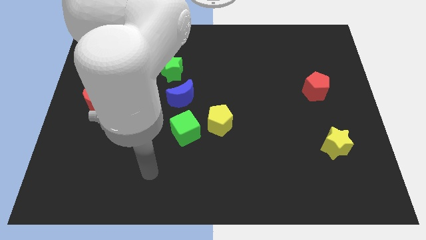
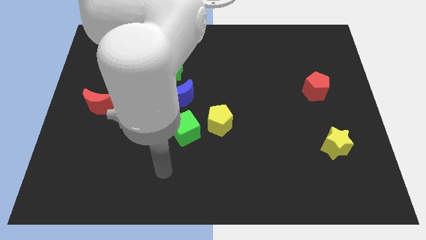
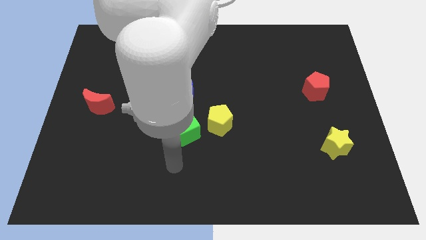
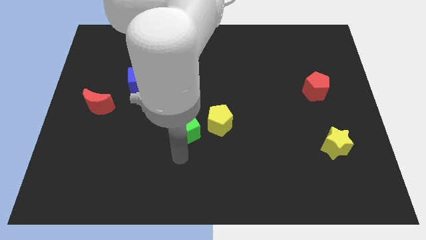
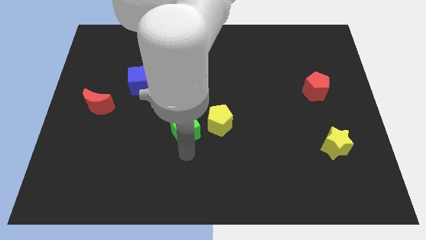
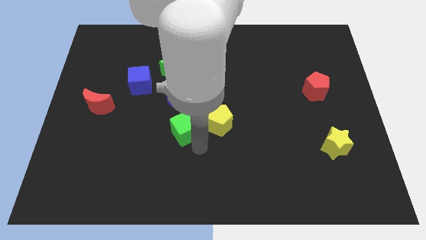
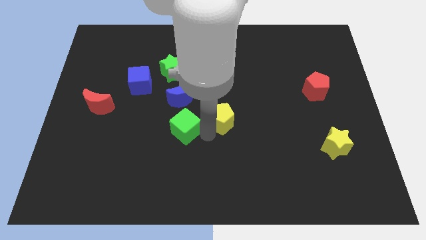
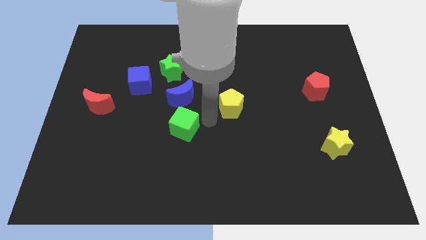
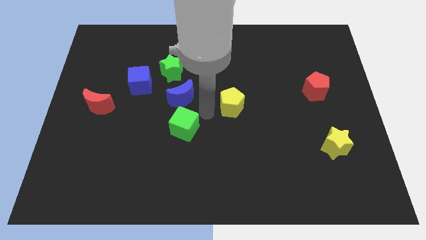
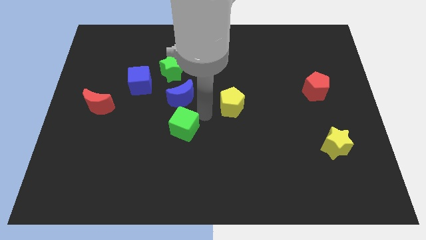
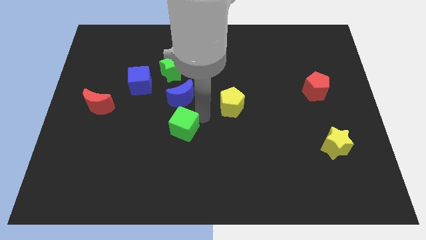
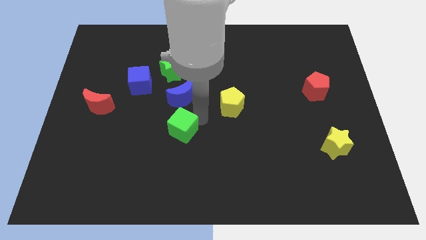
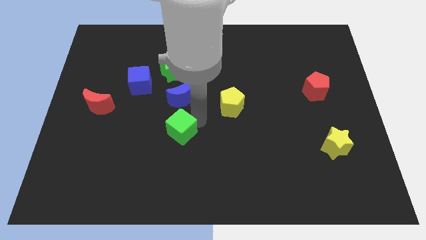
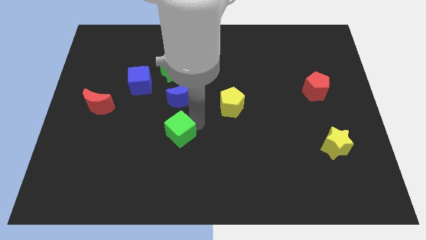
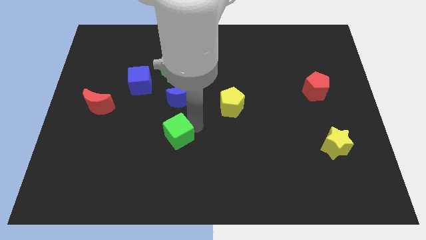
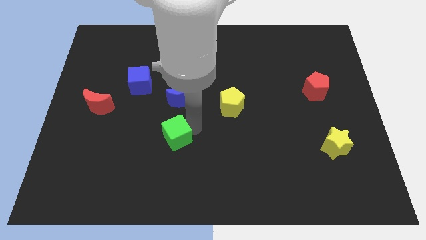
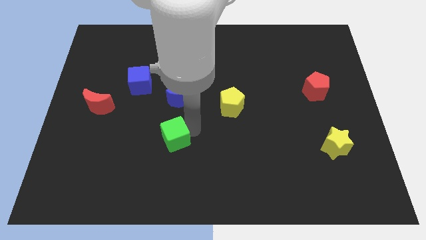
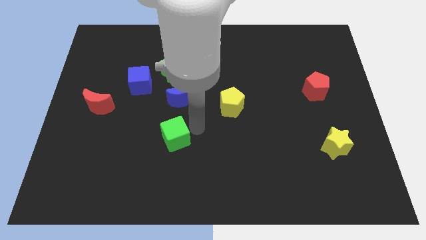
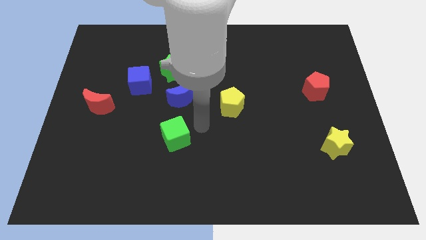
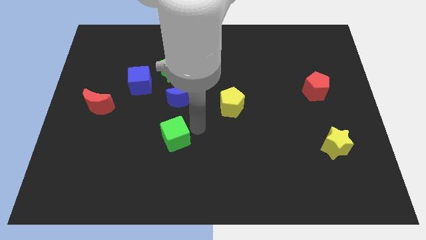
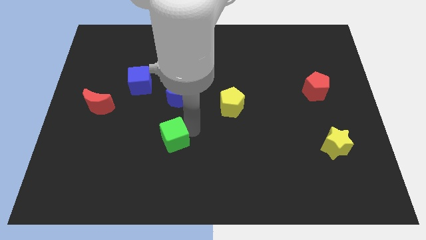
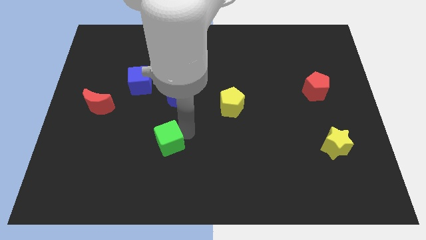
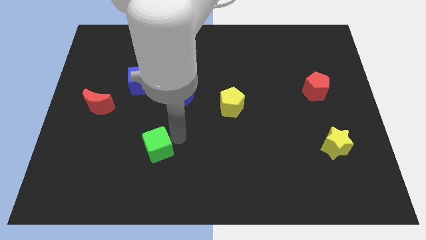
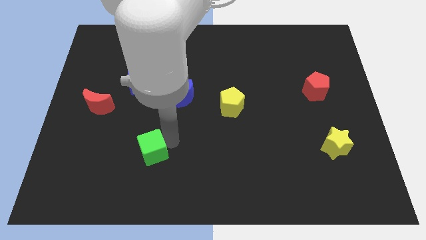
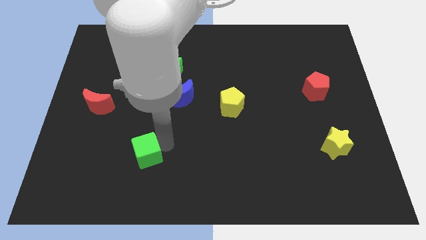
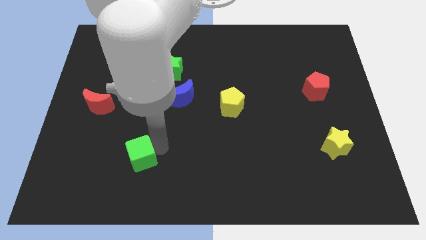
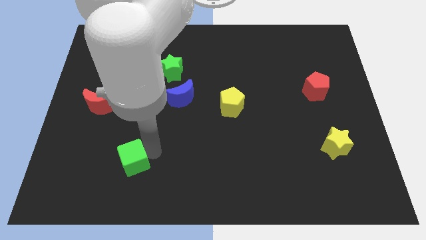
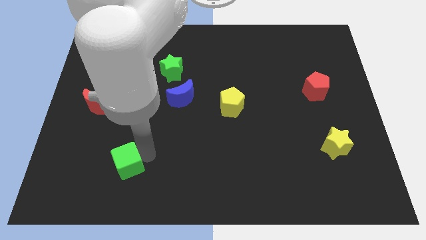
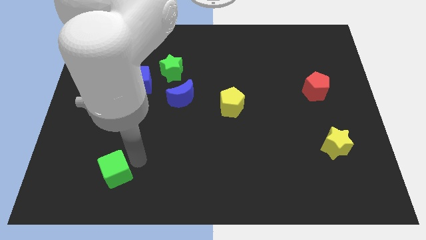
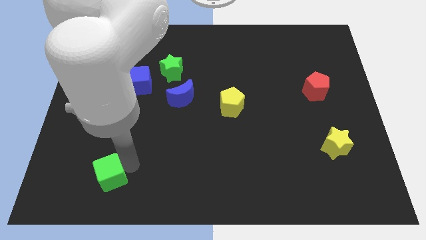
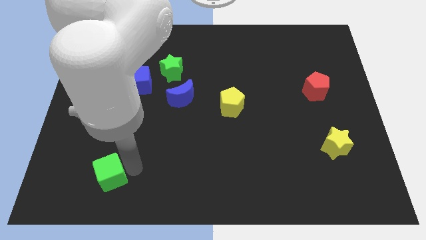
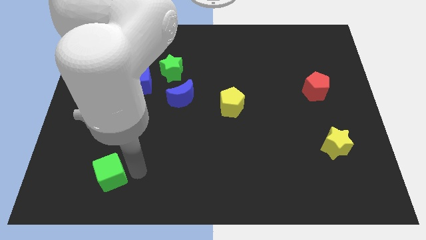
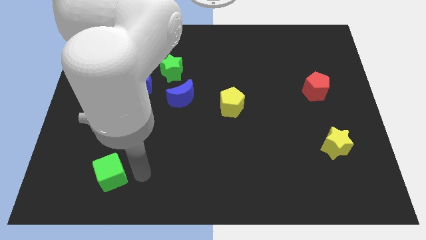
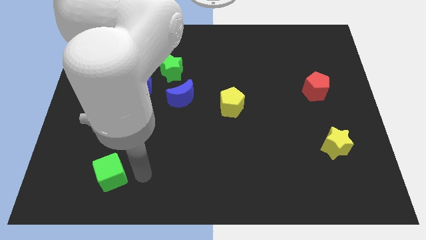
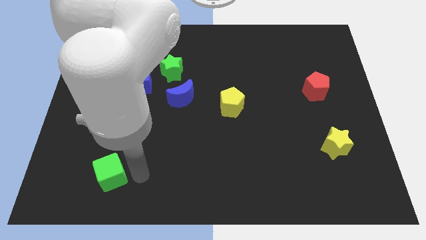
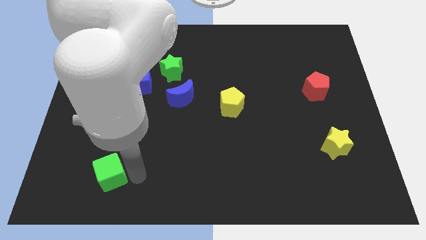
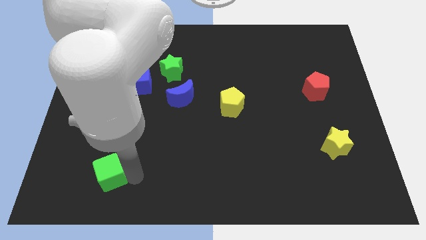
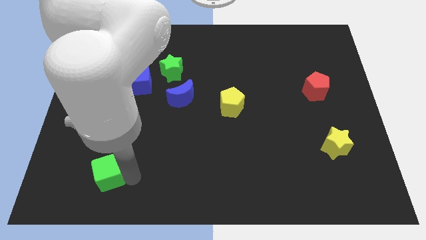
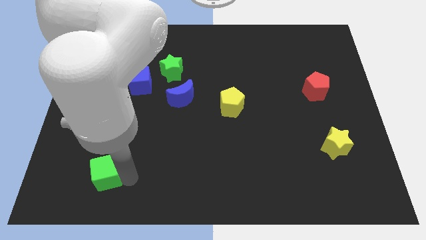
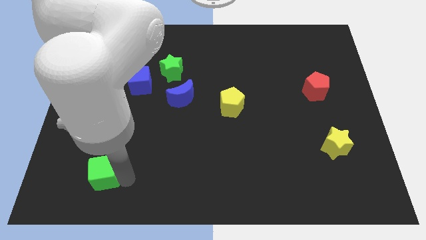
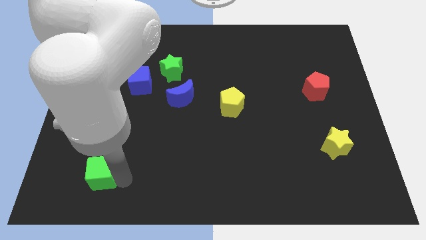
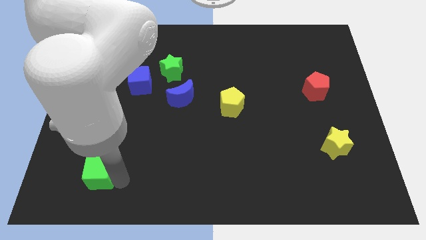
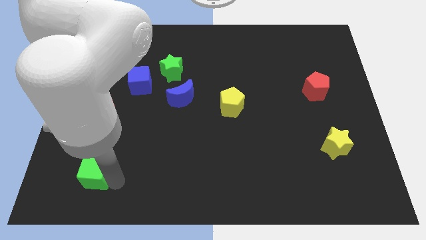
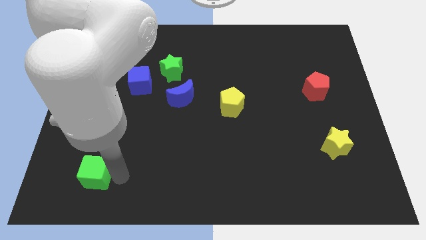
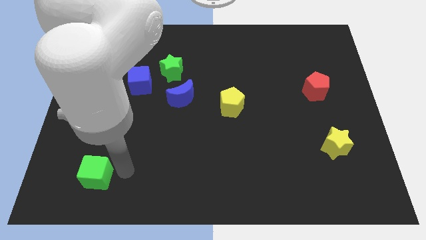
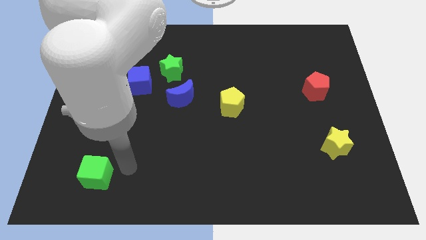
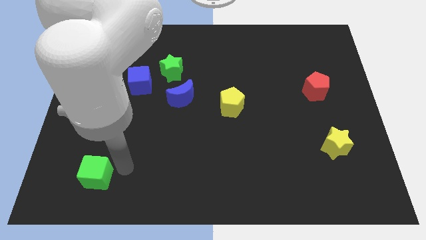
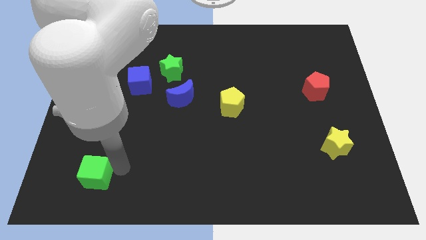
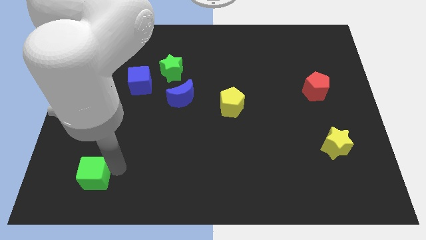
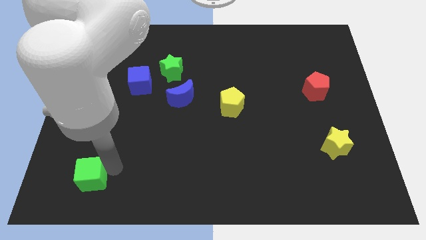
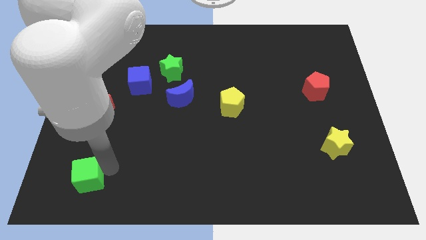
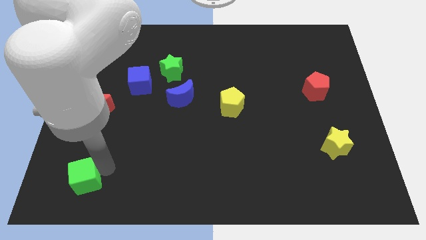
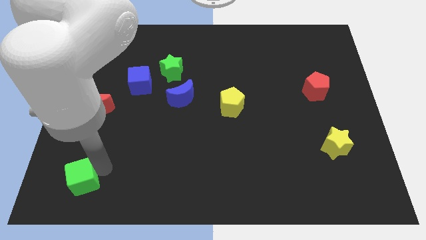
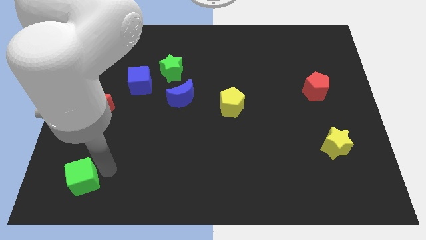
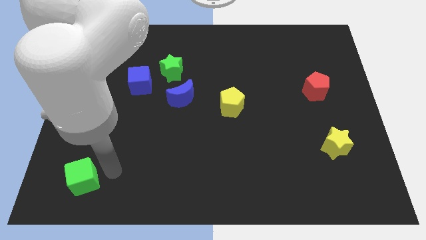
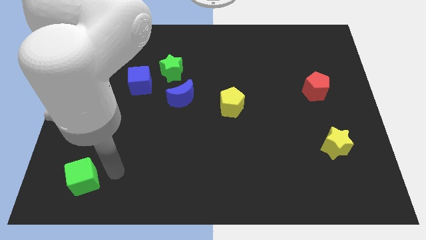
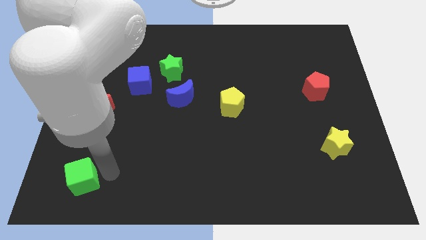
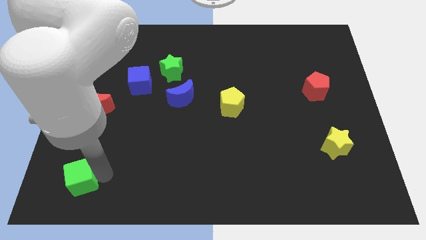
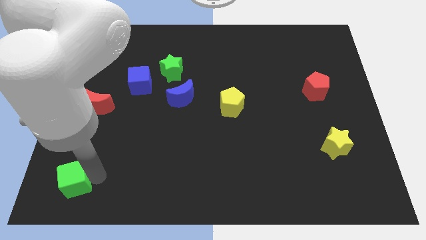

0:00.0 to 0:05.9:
slide the green cube to the bottom left

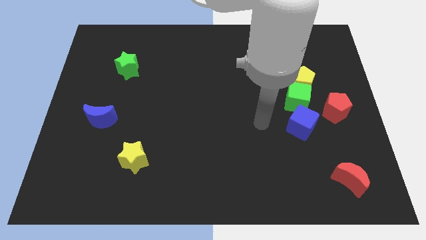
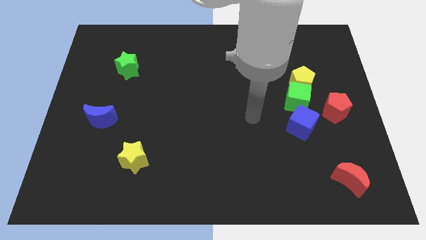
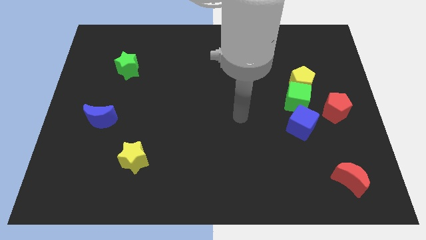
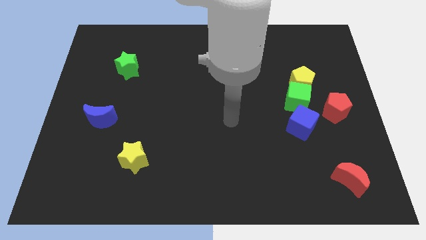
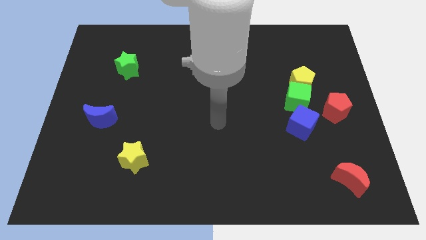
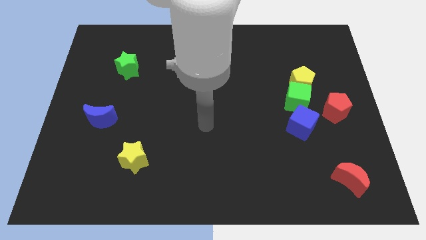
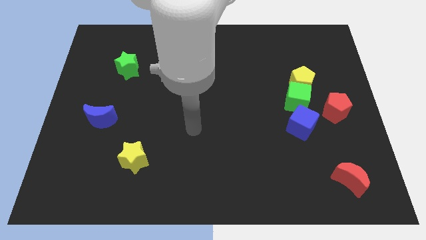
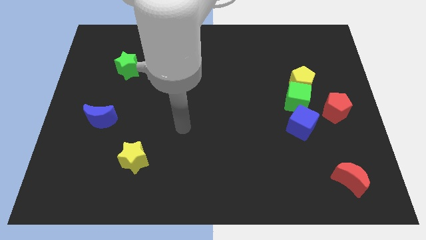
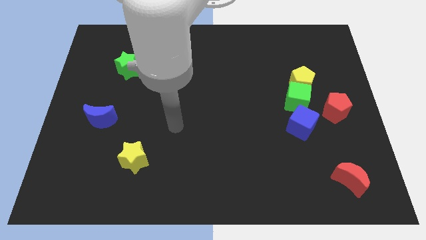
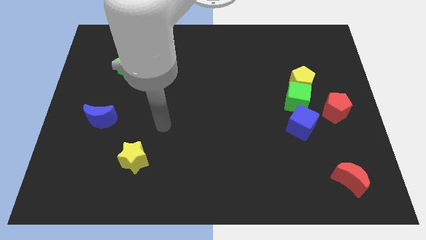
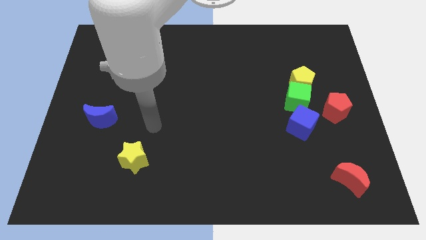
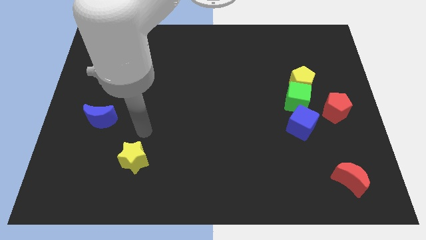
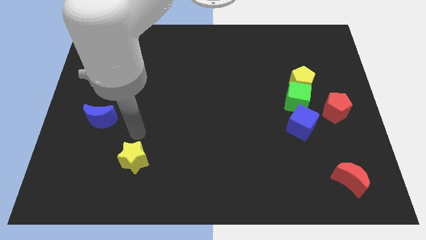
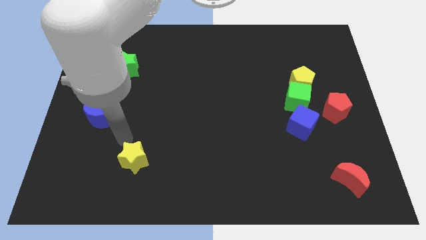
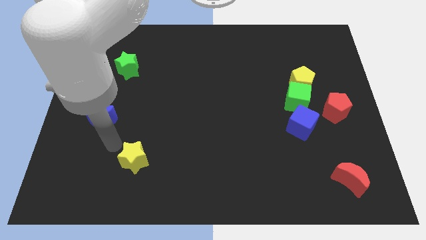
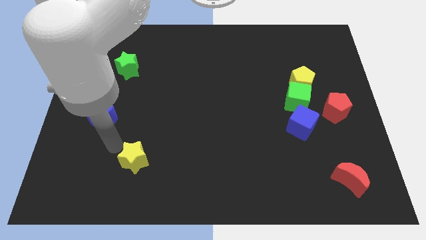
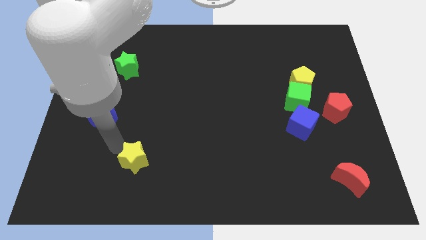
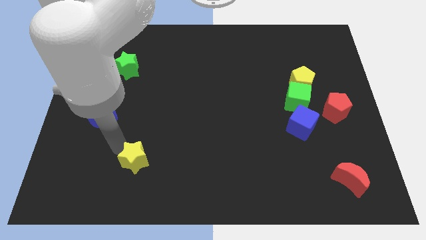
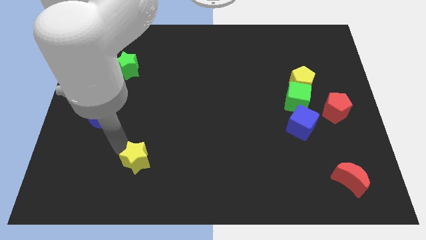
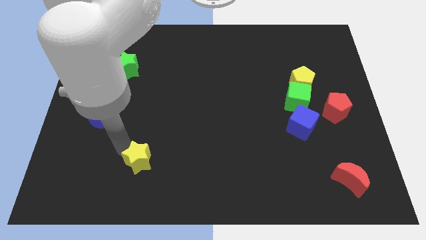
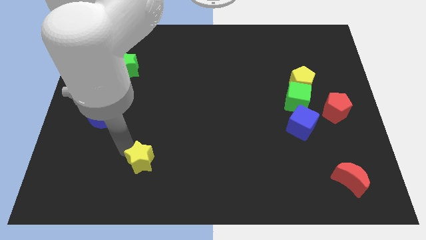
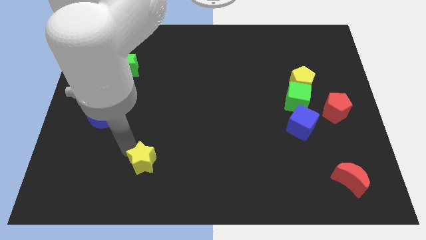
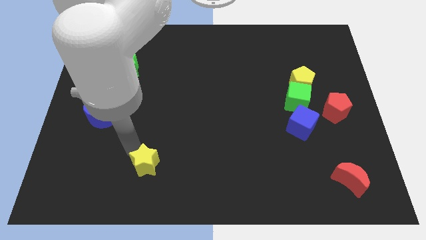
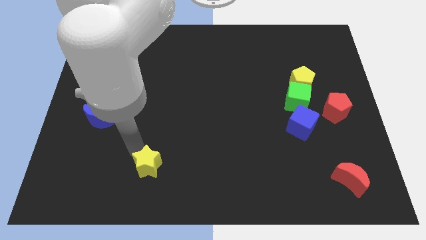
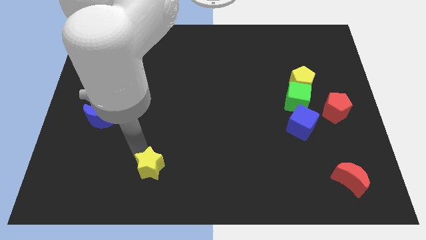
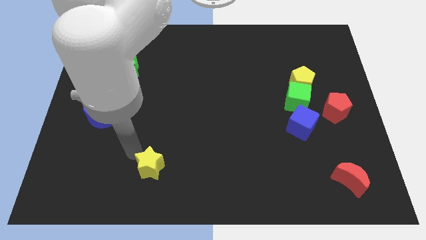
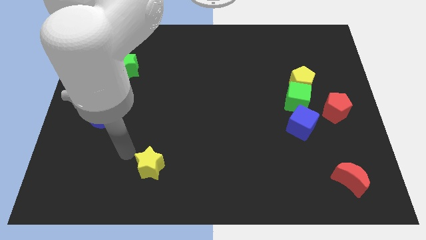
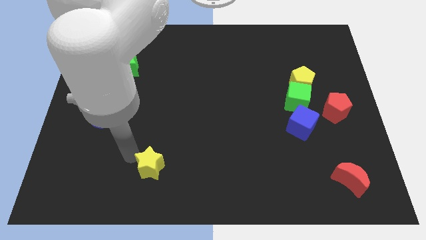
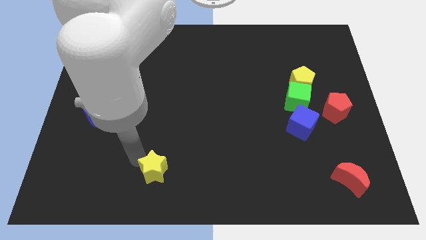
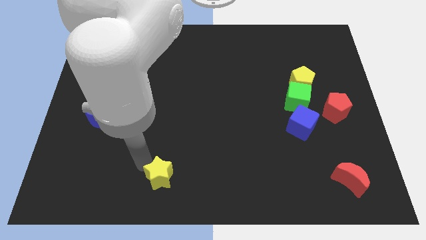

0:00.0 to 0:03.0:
push the yellow star to the bottom side
